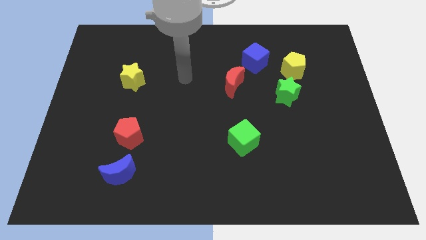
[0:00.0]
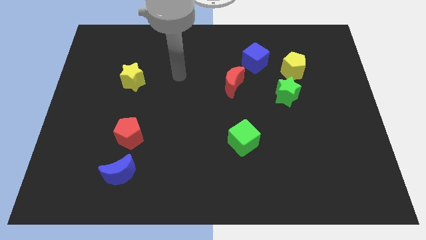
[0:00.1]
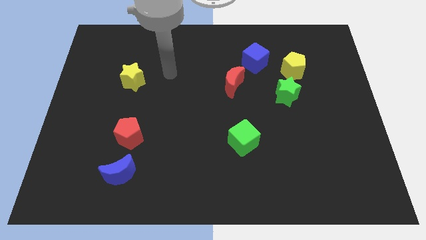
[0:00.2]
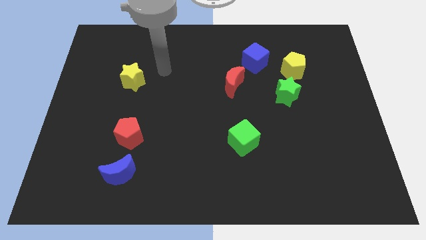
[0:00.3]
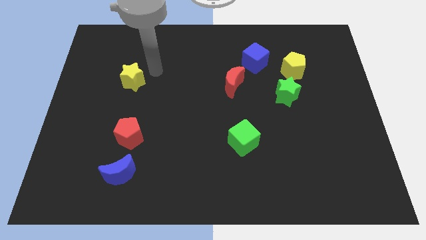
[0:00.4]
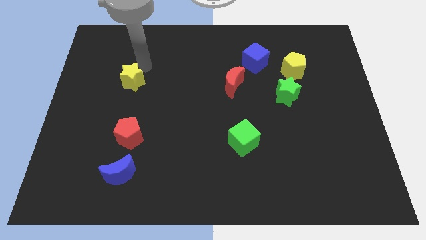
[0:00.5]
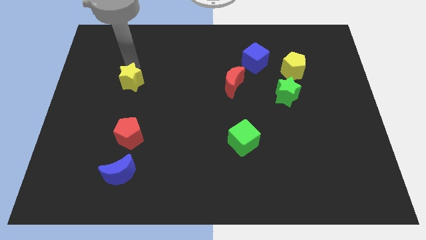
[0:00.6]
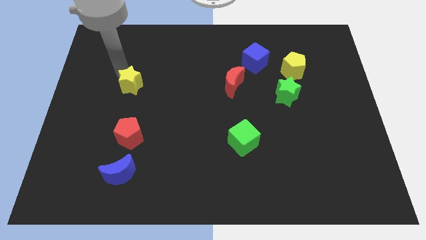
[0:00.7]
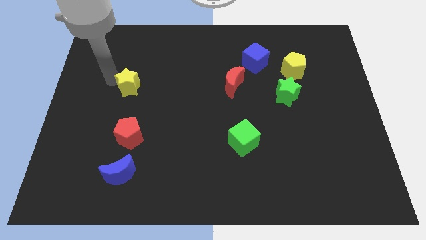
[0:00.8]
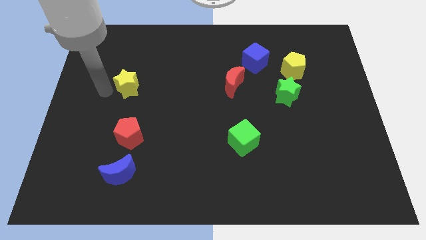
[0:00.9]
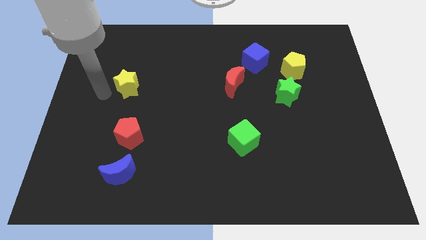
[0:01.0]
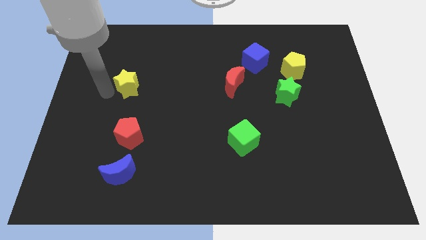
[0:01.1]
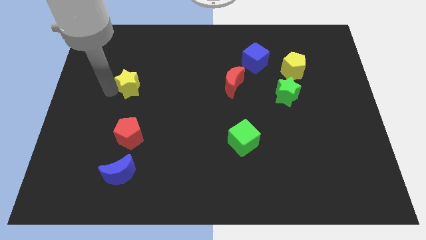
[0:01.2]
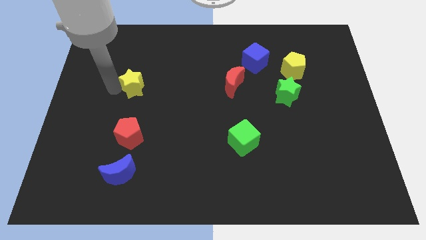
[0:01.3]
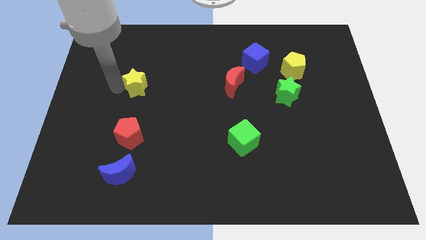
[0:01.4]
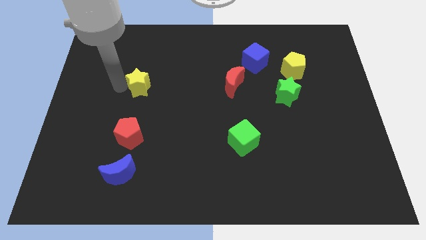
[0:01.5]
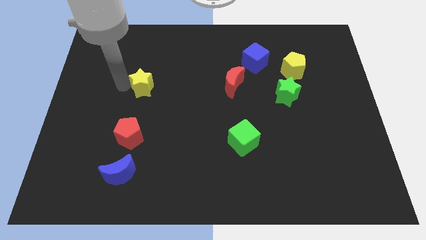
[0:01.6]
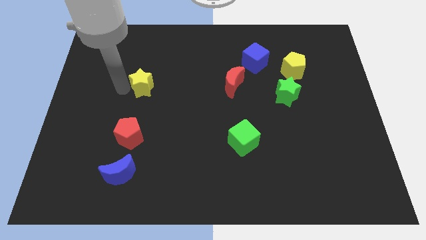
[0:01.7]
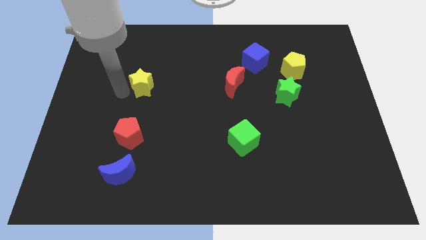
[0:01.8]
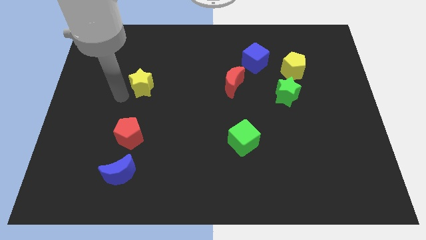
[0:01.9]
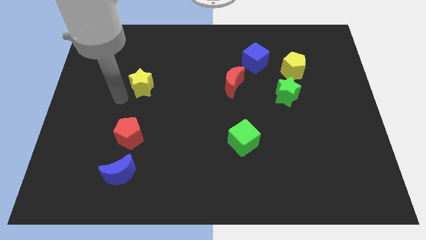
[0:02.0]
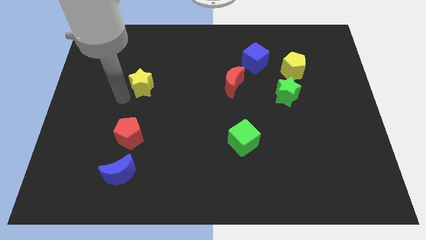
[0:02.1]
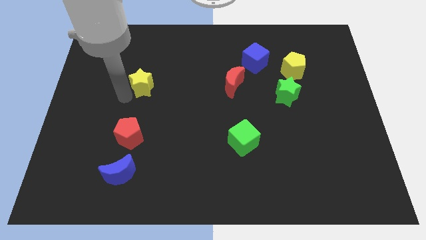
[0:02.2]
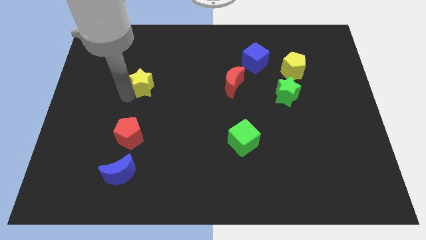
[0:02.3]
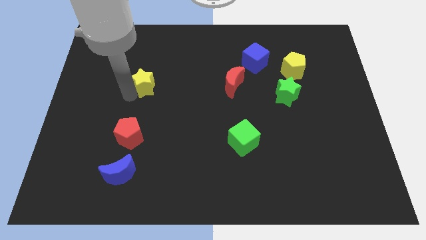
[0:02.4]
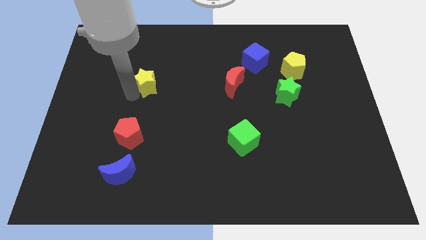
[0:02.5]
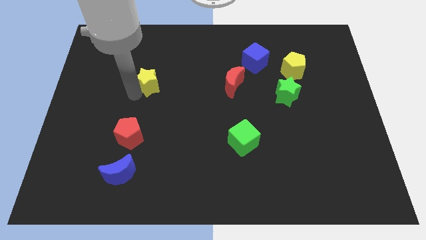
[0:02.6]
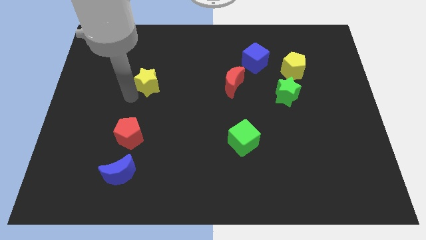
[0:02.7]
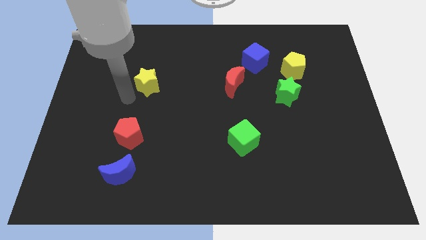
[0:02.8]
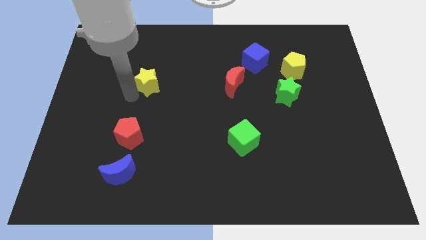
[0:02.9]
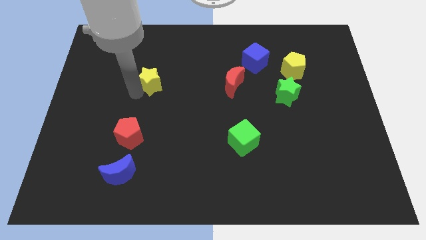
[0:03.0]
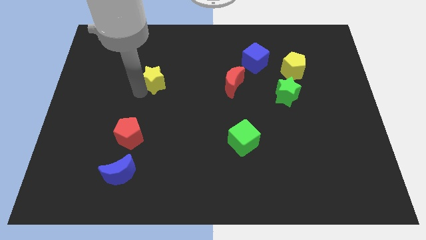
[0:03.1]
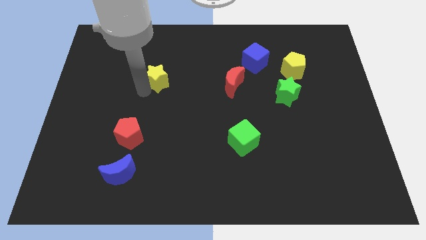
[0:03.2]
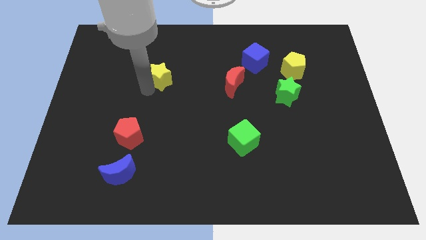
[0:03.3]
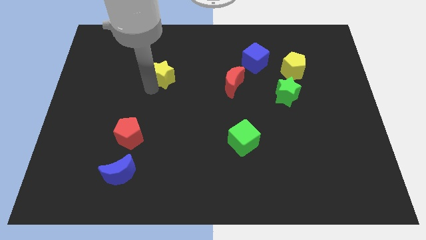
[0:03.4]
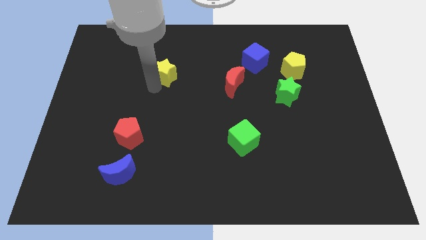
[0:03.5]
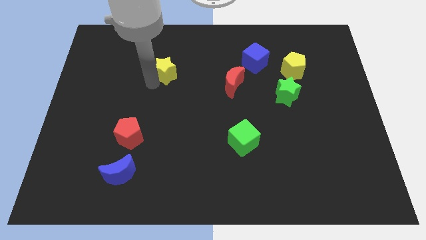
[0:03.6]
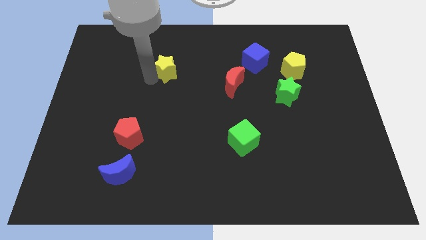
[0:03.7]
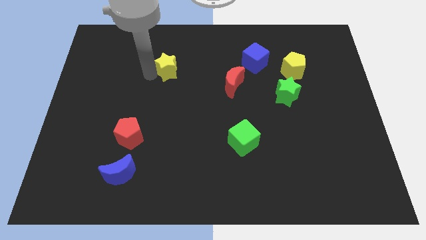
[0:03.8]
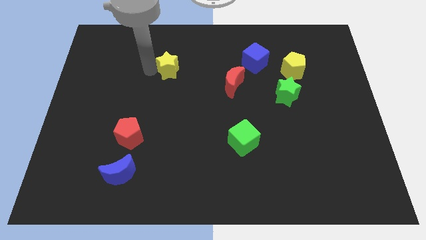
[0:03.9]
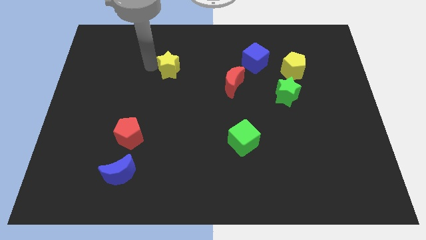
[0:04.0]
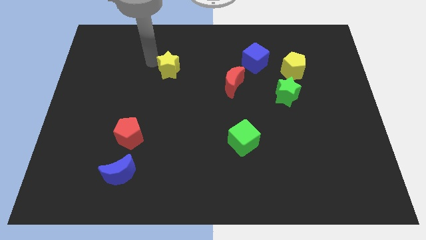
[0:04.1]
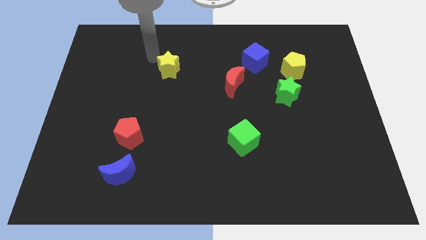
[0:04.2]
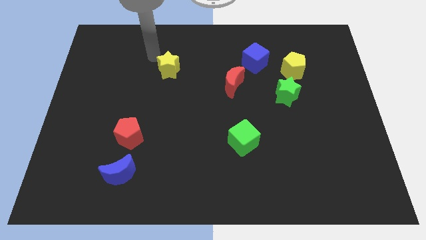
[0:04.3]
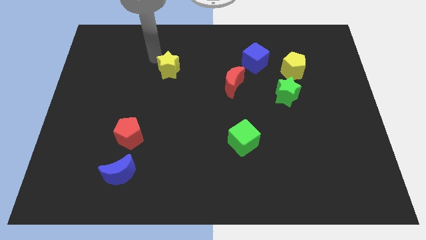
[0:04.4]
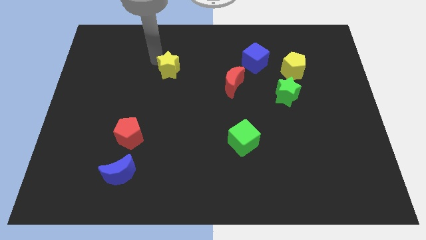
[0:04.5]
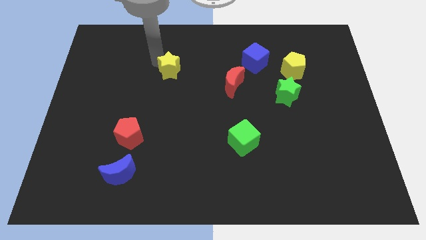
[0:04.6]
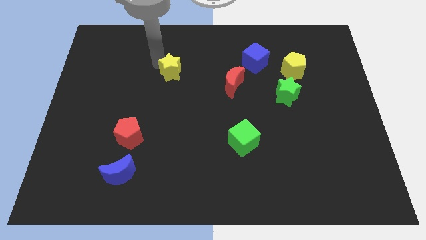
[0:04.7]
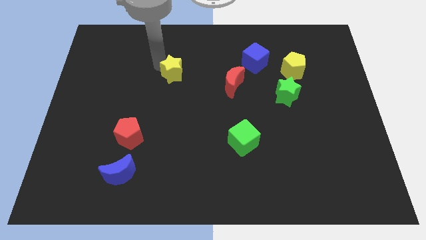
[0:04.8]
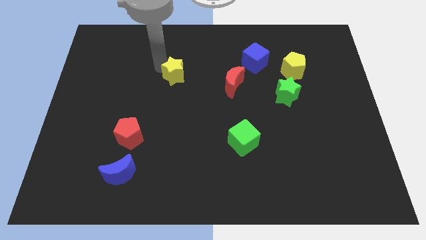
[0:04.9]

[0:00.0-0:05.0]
put the yellow star left of the red moon

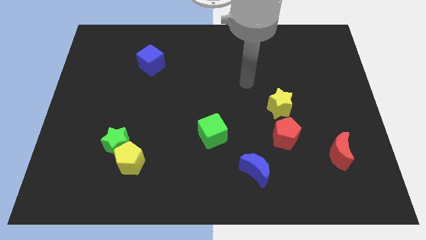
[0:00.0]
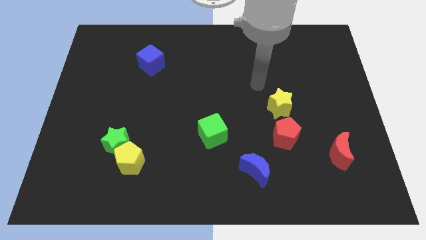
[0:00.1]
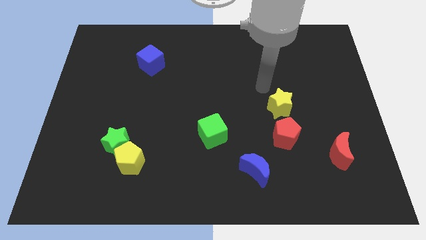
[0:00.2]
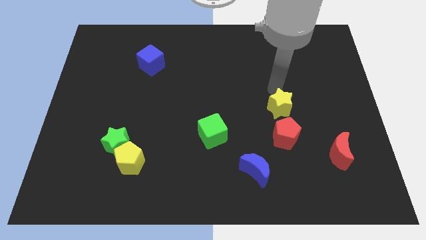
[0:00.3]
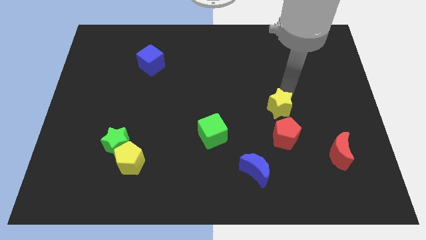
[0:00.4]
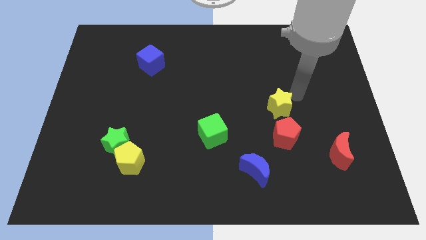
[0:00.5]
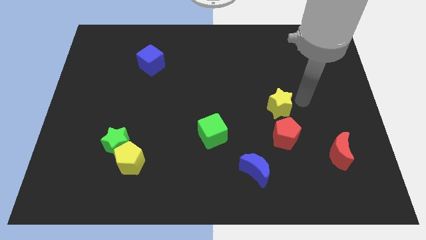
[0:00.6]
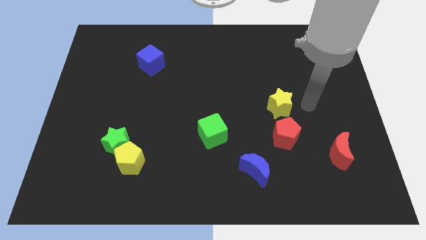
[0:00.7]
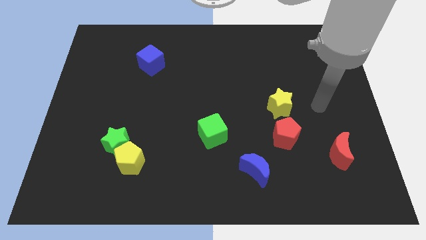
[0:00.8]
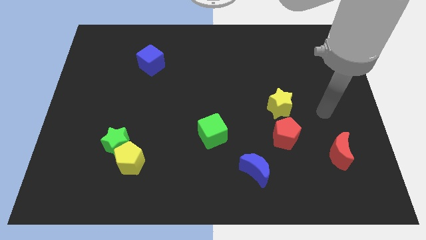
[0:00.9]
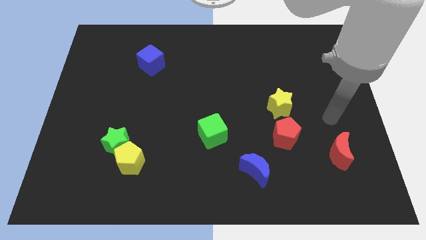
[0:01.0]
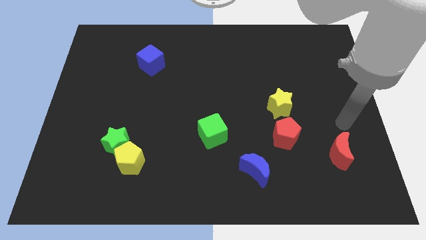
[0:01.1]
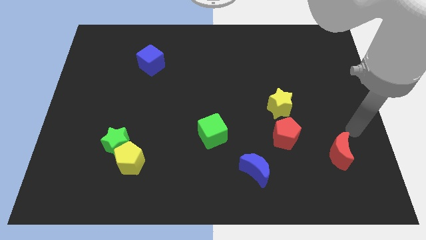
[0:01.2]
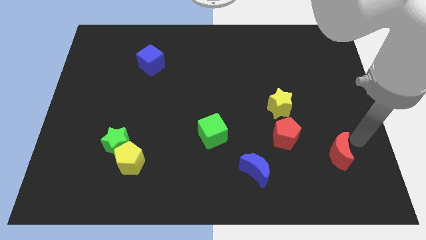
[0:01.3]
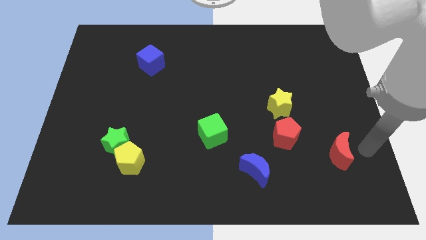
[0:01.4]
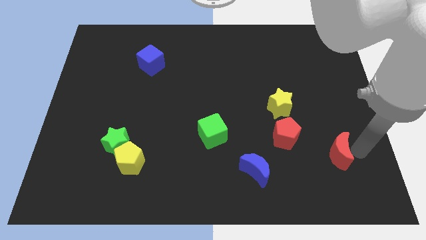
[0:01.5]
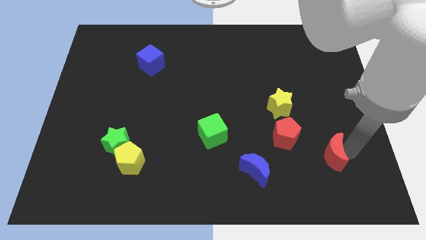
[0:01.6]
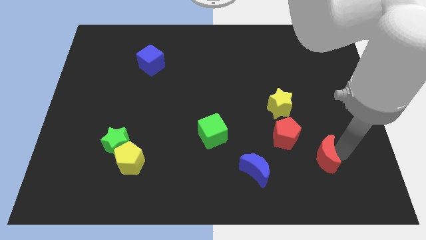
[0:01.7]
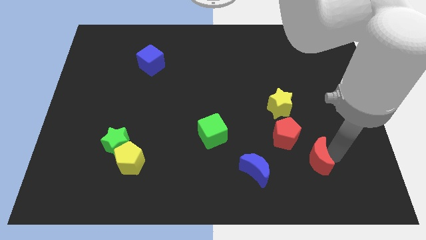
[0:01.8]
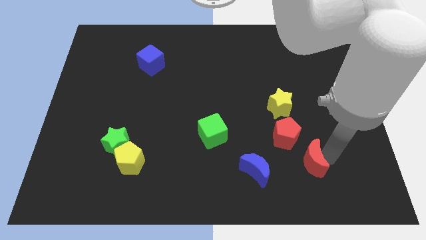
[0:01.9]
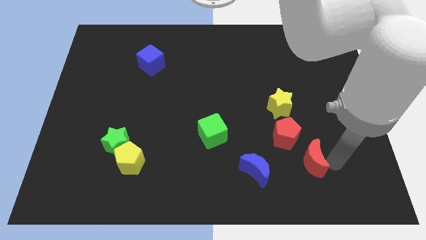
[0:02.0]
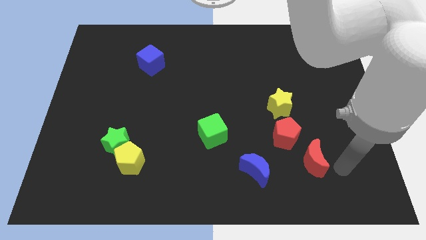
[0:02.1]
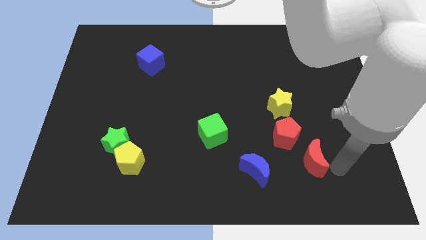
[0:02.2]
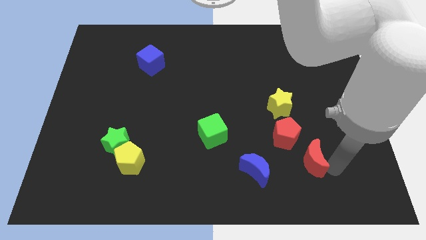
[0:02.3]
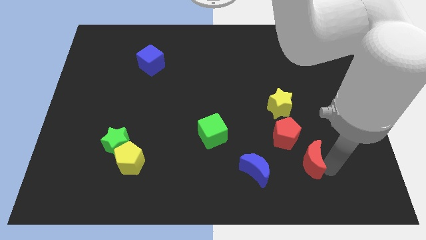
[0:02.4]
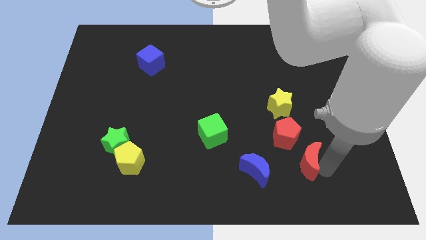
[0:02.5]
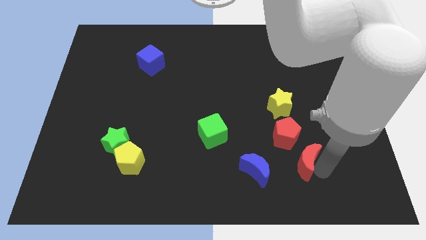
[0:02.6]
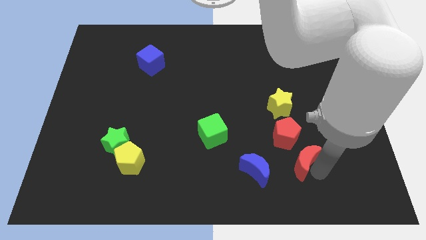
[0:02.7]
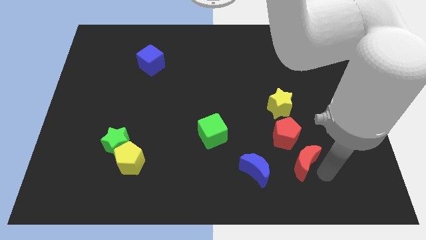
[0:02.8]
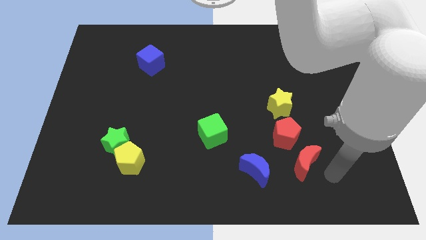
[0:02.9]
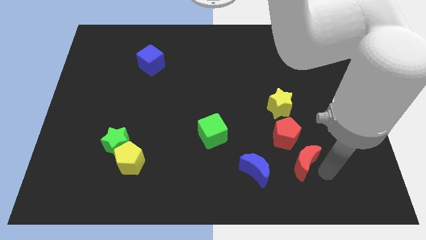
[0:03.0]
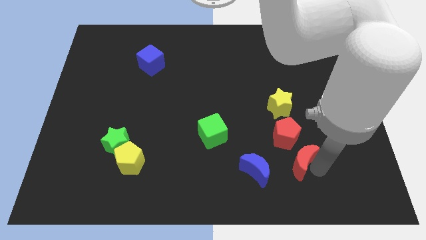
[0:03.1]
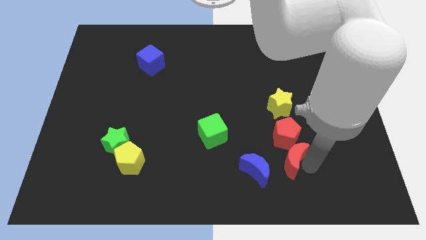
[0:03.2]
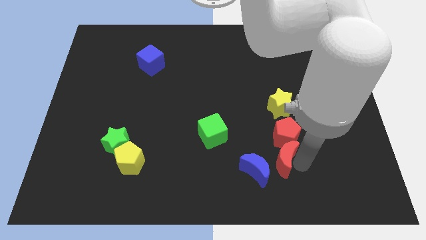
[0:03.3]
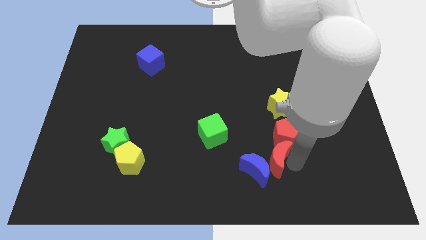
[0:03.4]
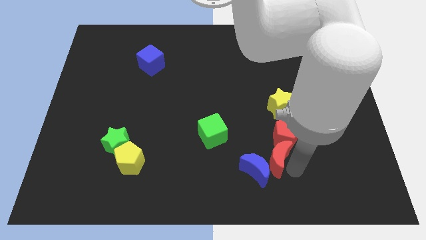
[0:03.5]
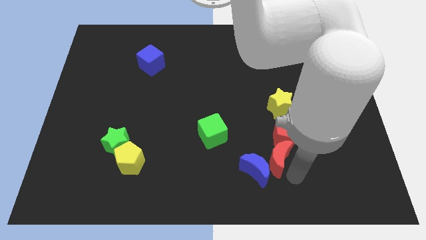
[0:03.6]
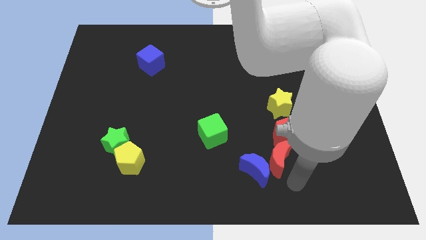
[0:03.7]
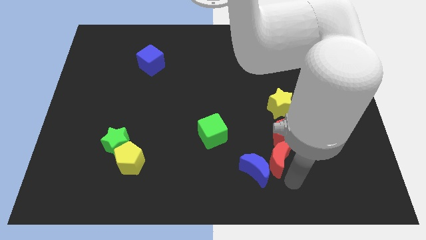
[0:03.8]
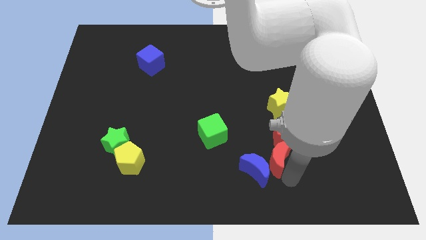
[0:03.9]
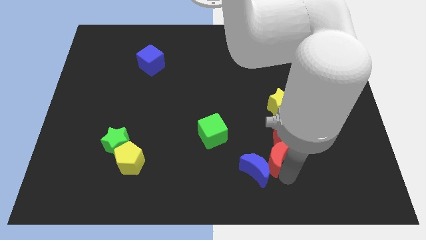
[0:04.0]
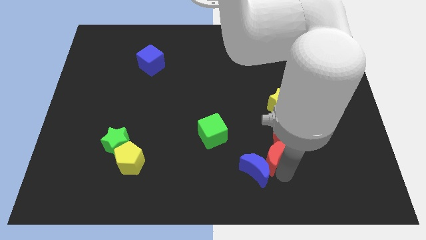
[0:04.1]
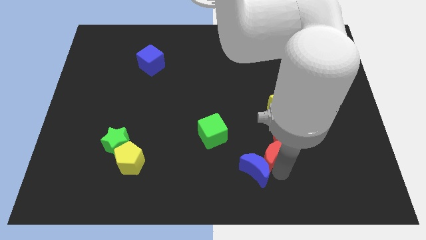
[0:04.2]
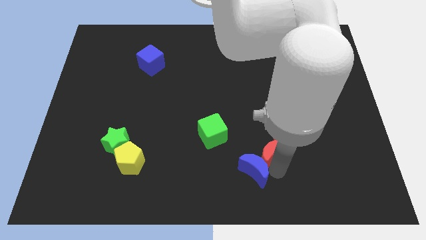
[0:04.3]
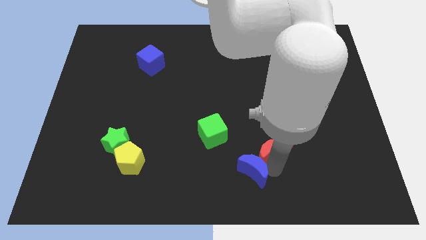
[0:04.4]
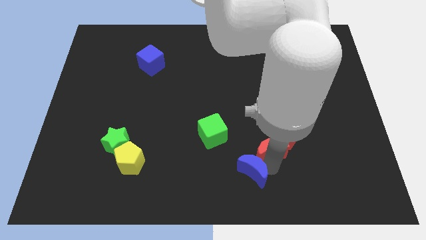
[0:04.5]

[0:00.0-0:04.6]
push the red moon just right of the green cube
